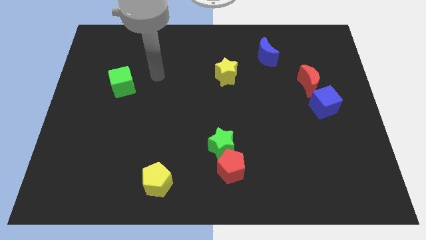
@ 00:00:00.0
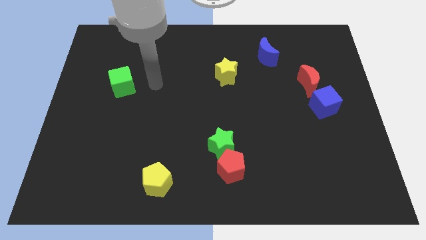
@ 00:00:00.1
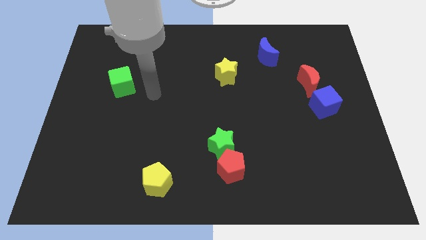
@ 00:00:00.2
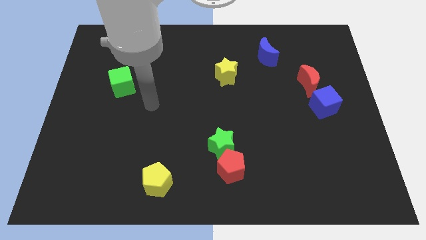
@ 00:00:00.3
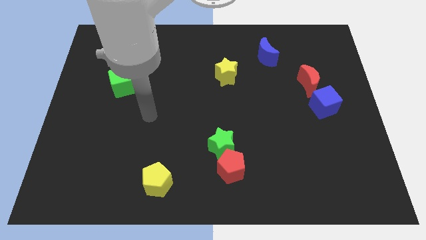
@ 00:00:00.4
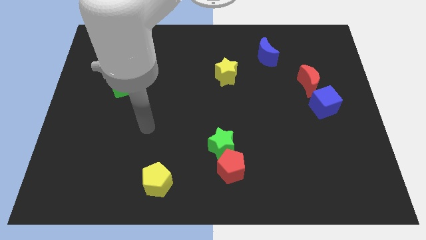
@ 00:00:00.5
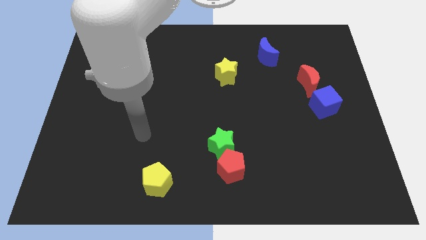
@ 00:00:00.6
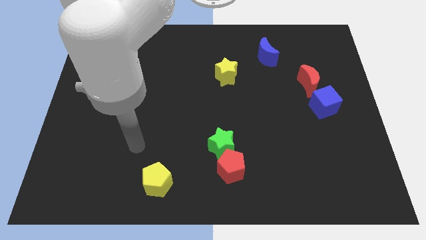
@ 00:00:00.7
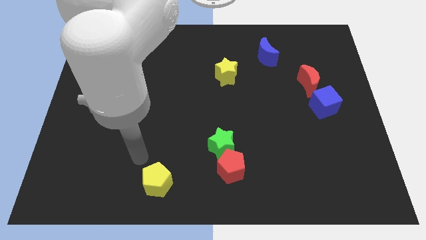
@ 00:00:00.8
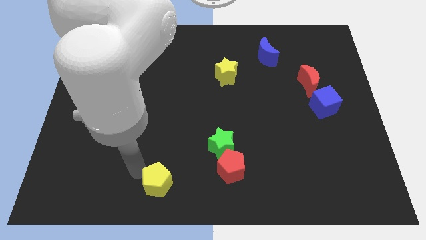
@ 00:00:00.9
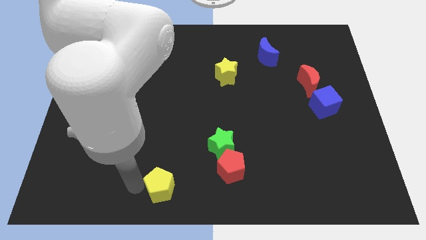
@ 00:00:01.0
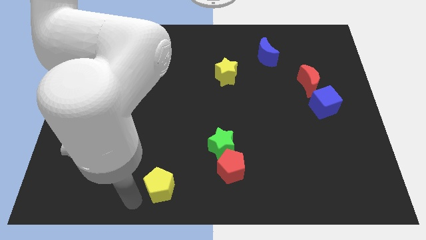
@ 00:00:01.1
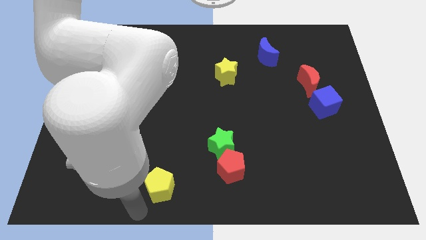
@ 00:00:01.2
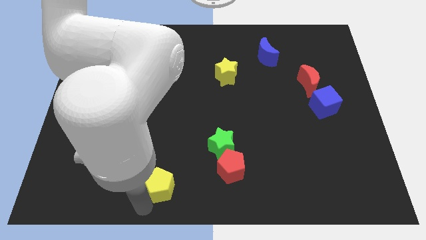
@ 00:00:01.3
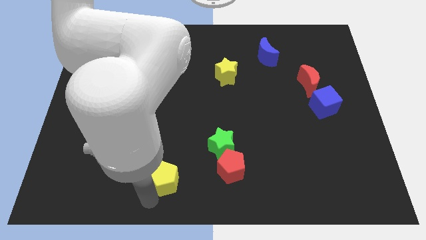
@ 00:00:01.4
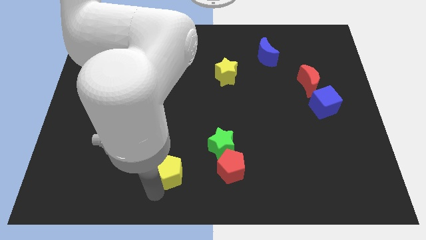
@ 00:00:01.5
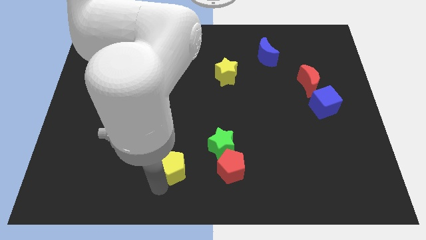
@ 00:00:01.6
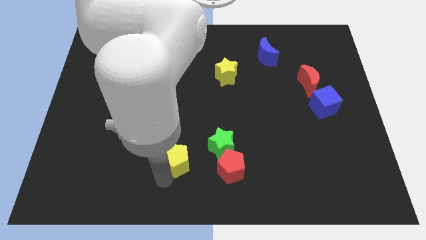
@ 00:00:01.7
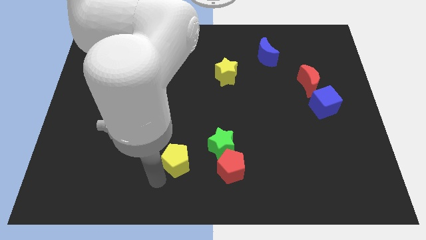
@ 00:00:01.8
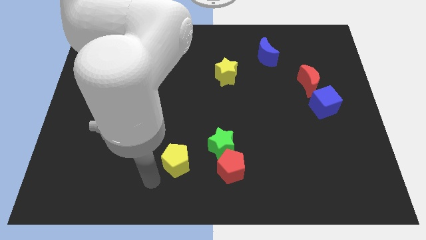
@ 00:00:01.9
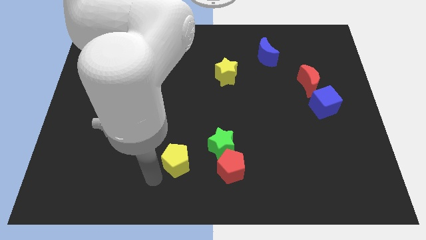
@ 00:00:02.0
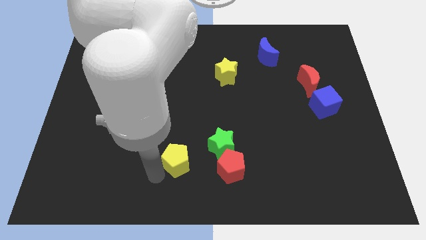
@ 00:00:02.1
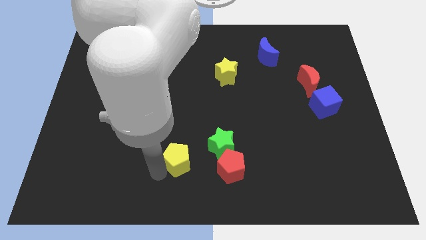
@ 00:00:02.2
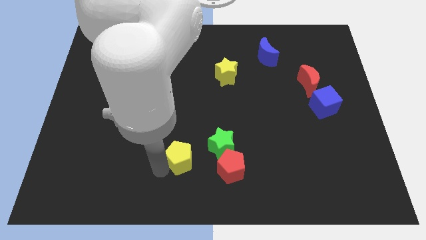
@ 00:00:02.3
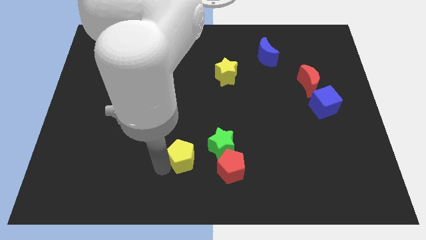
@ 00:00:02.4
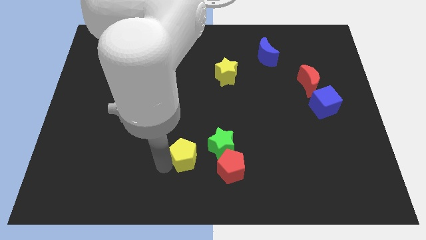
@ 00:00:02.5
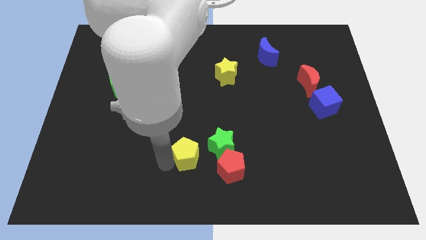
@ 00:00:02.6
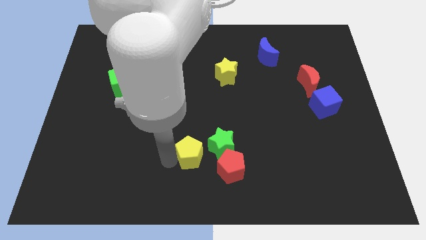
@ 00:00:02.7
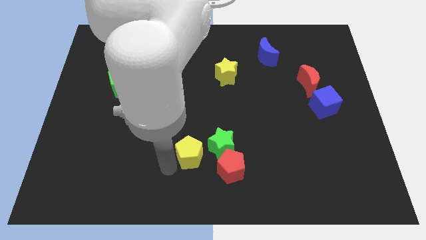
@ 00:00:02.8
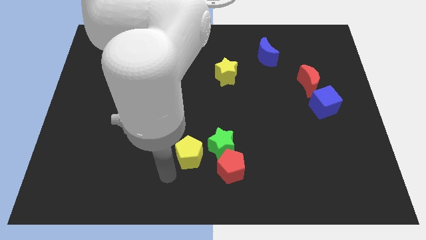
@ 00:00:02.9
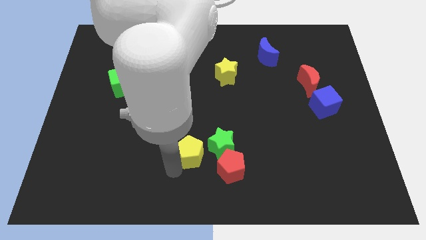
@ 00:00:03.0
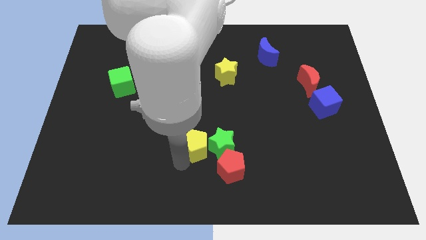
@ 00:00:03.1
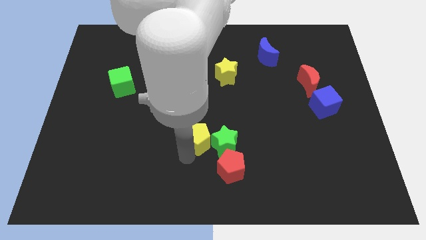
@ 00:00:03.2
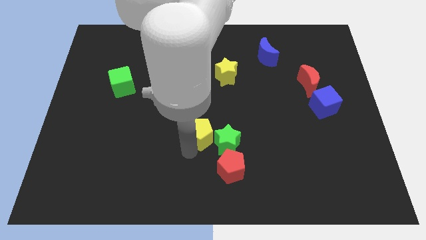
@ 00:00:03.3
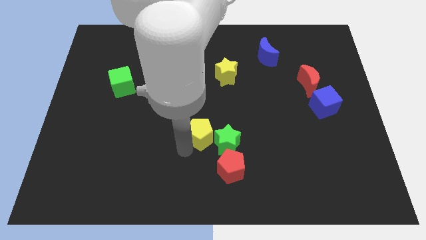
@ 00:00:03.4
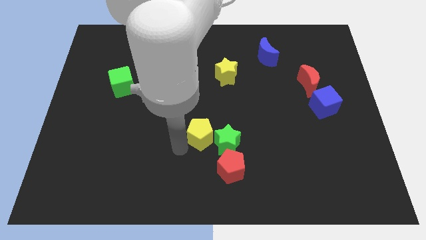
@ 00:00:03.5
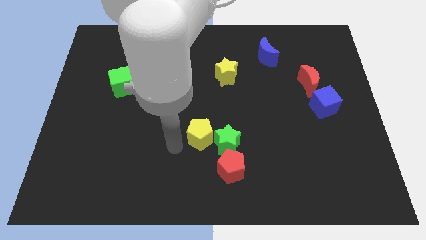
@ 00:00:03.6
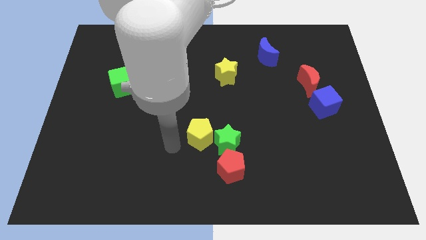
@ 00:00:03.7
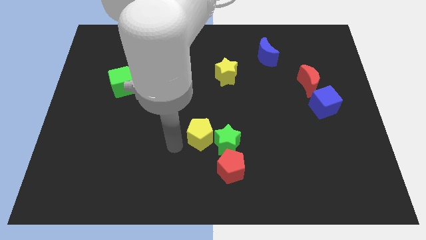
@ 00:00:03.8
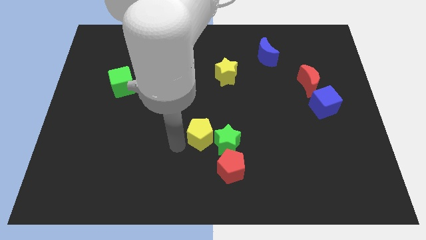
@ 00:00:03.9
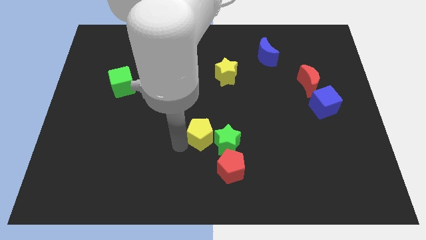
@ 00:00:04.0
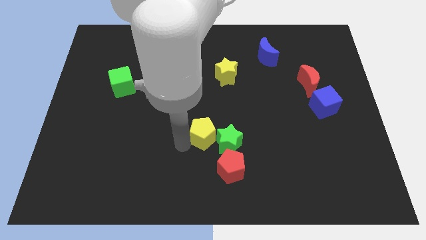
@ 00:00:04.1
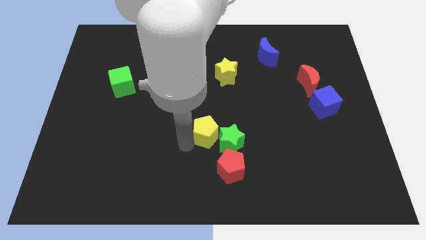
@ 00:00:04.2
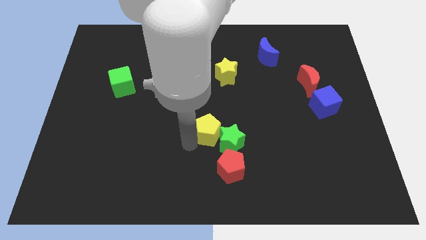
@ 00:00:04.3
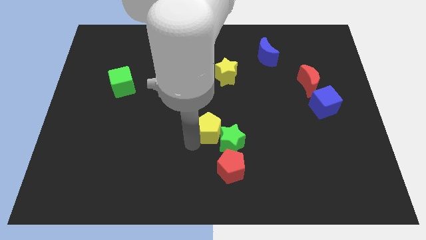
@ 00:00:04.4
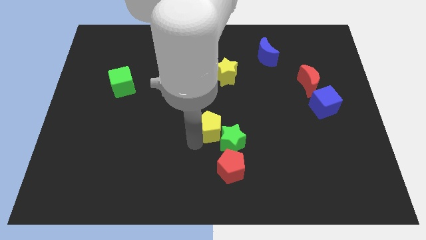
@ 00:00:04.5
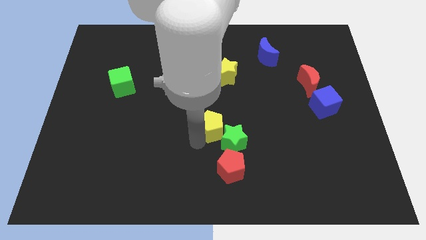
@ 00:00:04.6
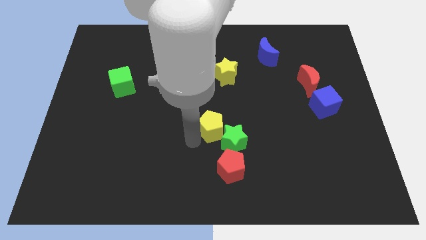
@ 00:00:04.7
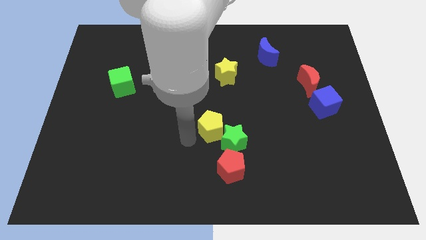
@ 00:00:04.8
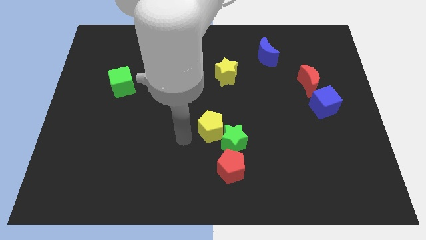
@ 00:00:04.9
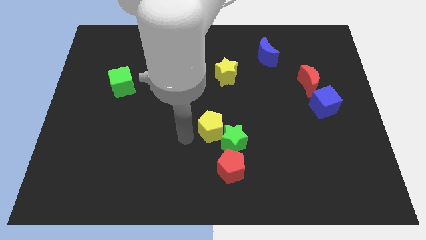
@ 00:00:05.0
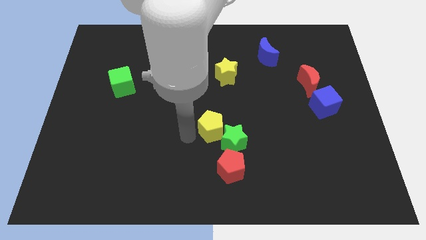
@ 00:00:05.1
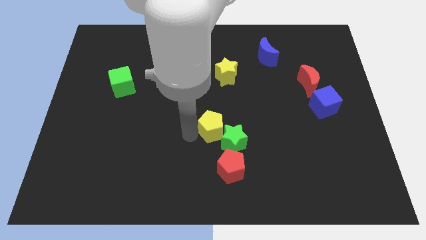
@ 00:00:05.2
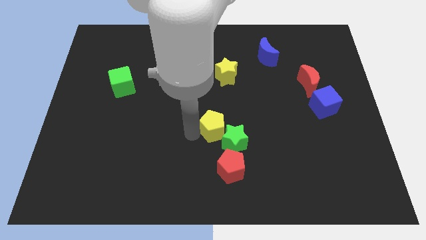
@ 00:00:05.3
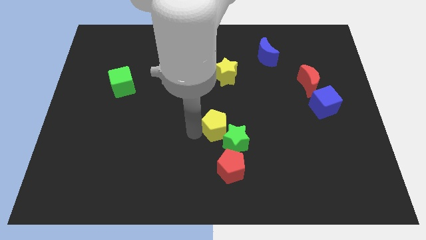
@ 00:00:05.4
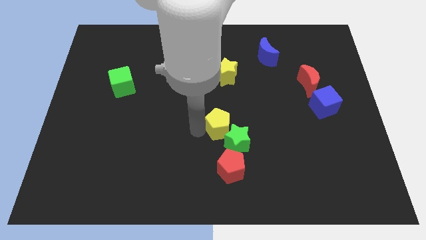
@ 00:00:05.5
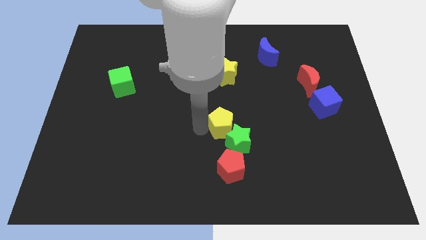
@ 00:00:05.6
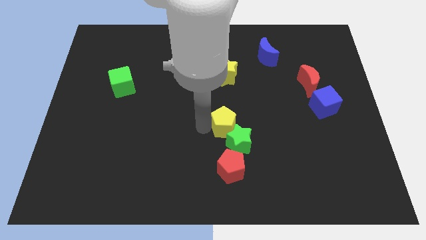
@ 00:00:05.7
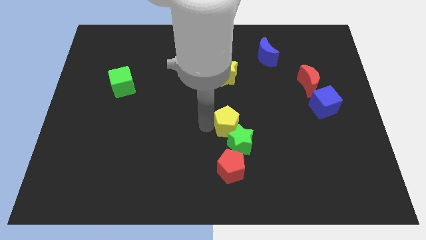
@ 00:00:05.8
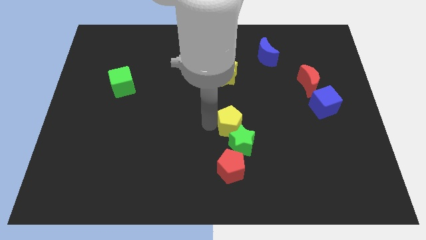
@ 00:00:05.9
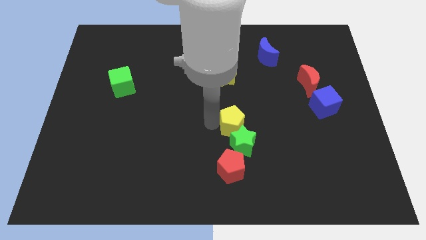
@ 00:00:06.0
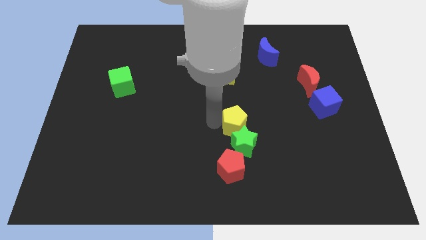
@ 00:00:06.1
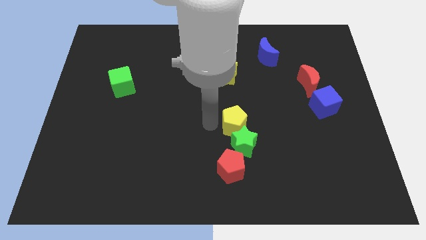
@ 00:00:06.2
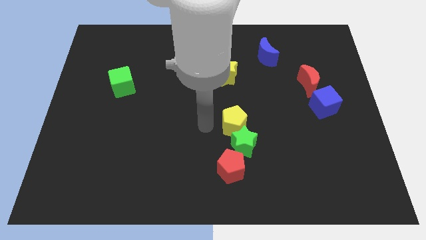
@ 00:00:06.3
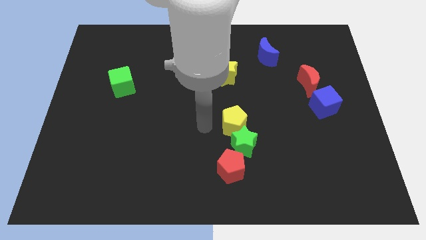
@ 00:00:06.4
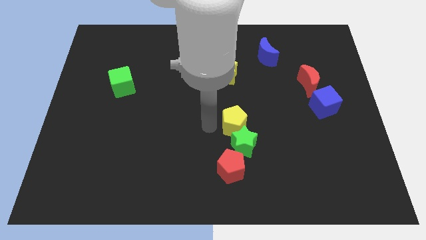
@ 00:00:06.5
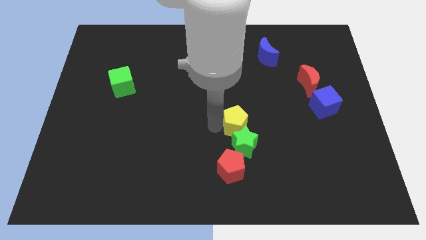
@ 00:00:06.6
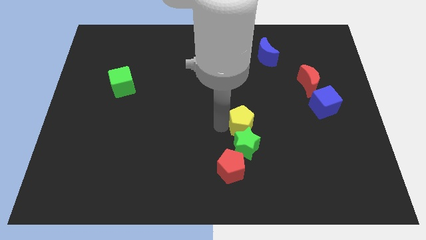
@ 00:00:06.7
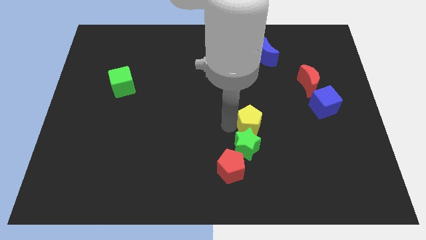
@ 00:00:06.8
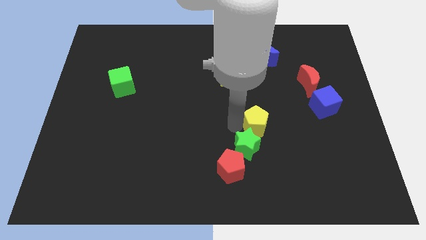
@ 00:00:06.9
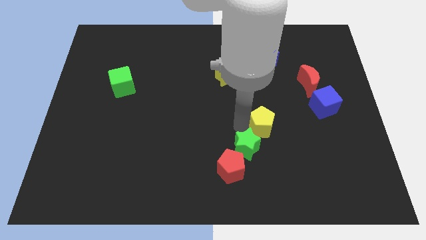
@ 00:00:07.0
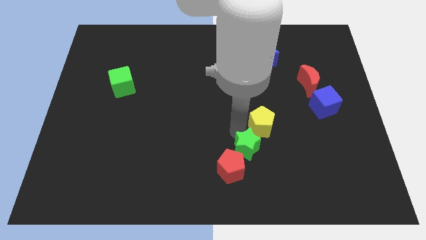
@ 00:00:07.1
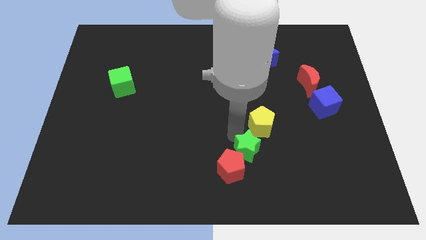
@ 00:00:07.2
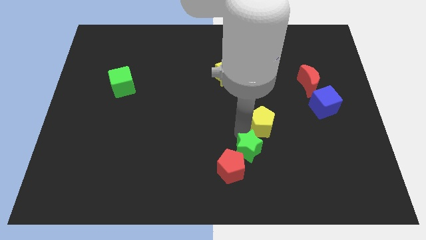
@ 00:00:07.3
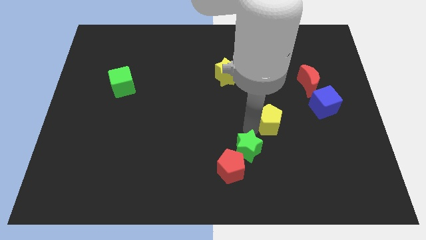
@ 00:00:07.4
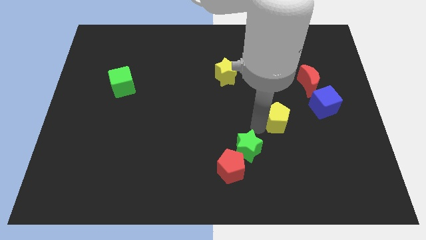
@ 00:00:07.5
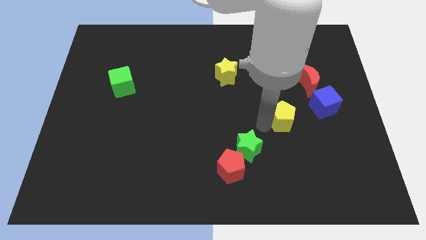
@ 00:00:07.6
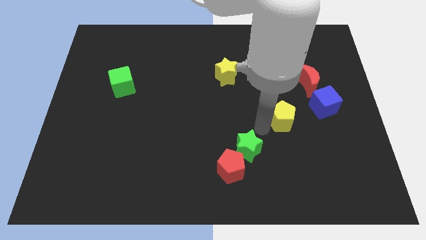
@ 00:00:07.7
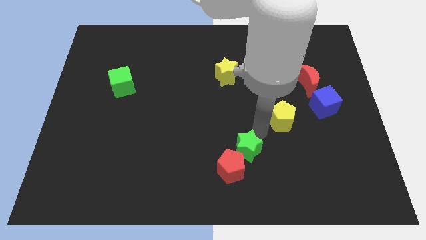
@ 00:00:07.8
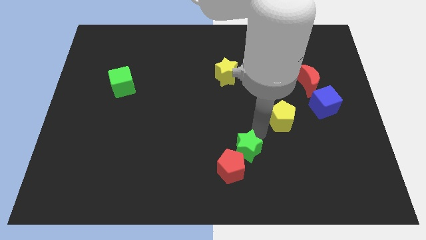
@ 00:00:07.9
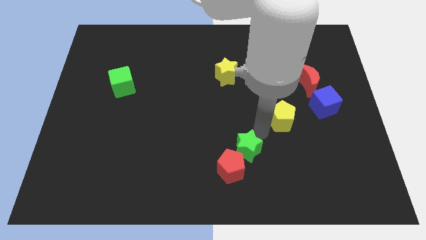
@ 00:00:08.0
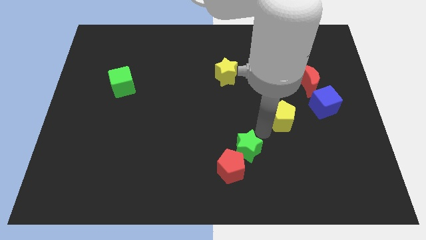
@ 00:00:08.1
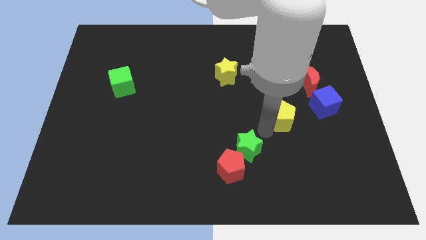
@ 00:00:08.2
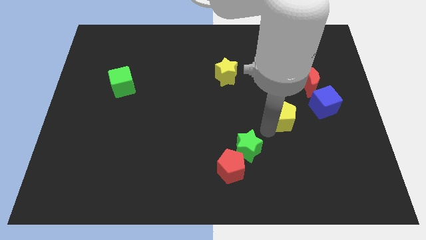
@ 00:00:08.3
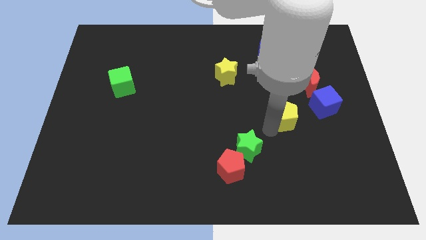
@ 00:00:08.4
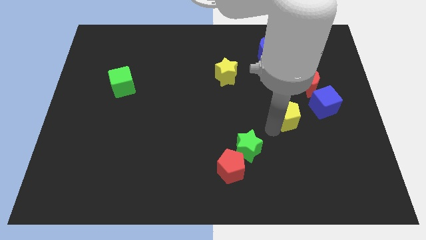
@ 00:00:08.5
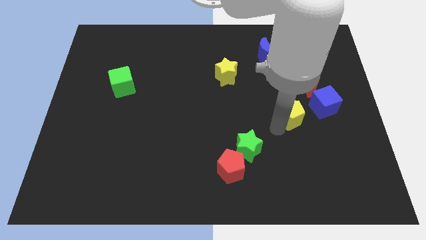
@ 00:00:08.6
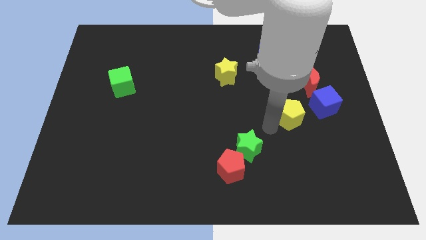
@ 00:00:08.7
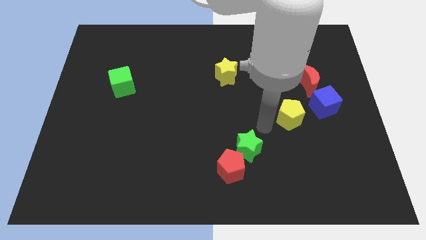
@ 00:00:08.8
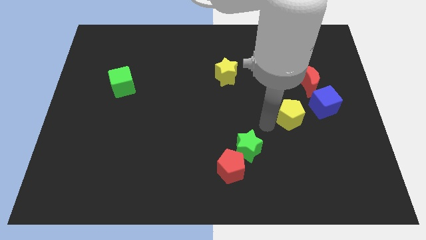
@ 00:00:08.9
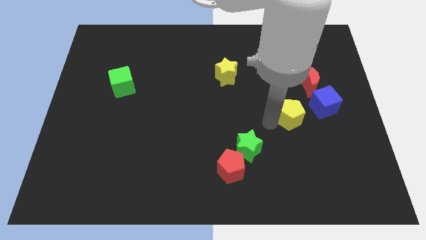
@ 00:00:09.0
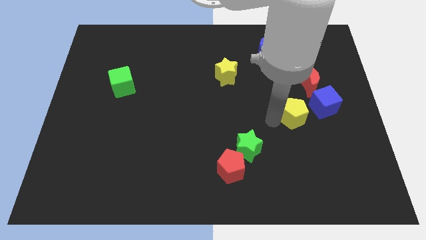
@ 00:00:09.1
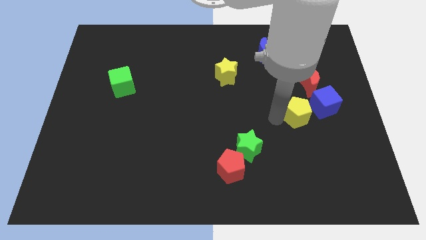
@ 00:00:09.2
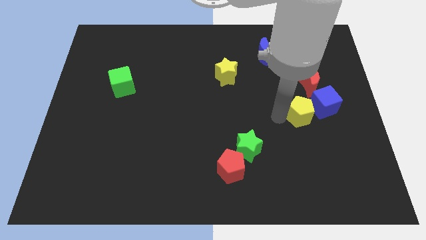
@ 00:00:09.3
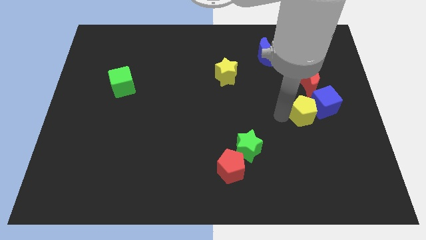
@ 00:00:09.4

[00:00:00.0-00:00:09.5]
move the yellow pentagon towards the blue cube
